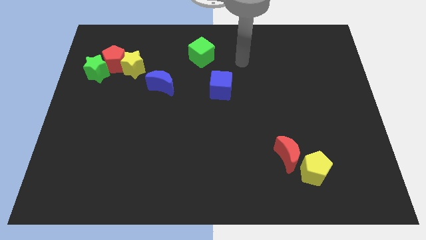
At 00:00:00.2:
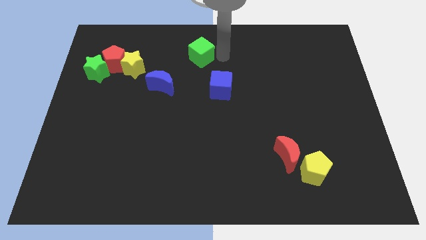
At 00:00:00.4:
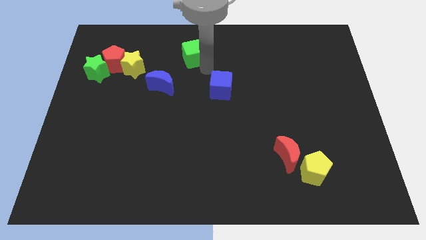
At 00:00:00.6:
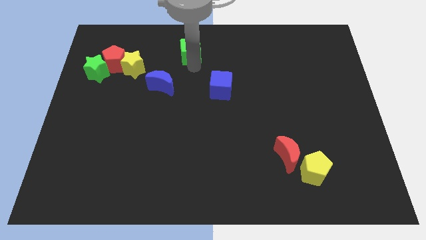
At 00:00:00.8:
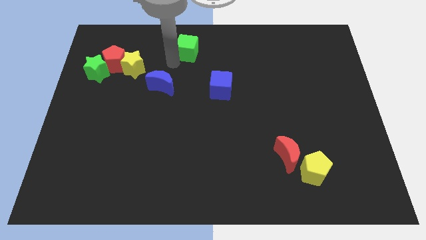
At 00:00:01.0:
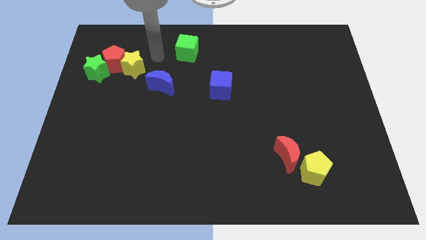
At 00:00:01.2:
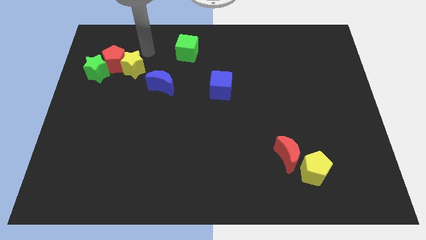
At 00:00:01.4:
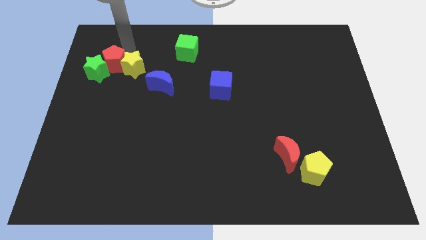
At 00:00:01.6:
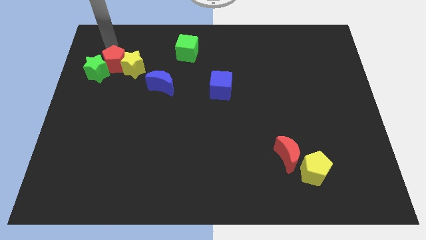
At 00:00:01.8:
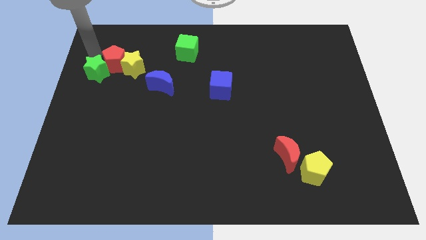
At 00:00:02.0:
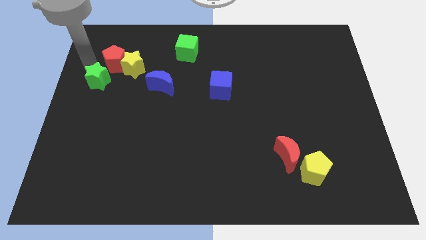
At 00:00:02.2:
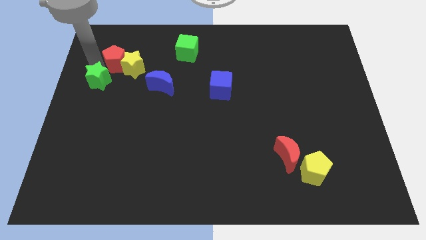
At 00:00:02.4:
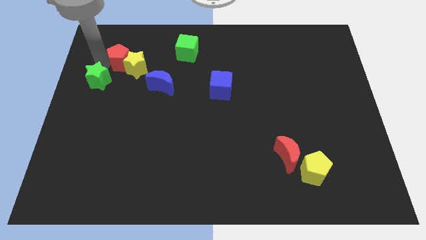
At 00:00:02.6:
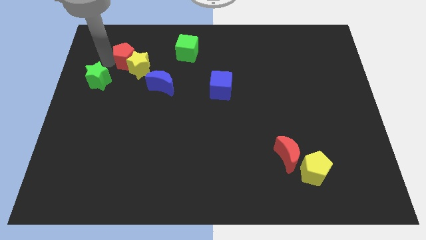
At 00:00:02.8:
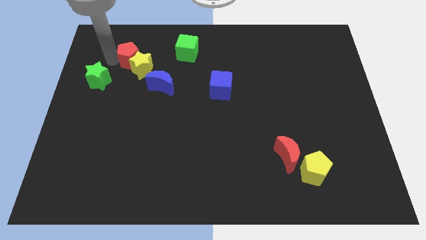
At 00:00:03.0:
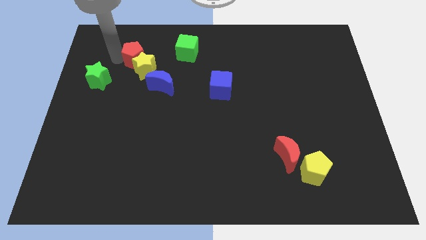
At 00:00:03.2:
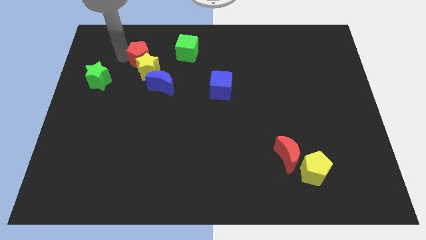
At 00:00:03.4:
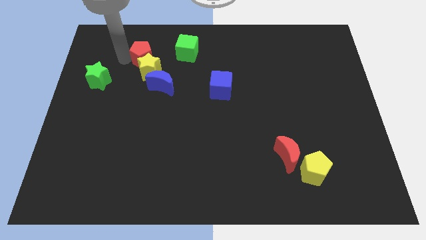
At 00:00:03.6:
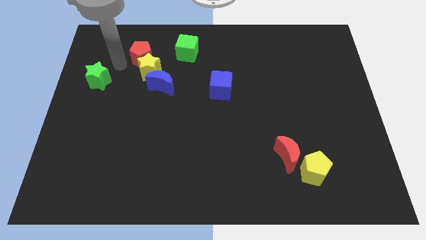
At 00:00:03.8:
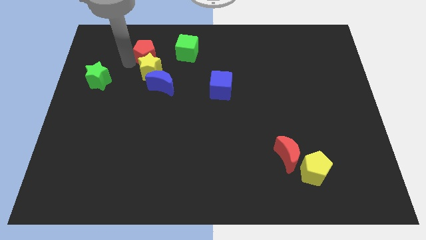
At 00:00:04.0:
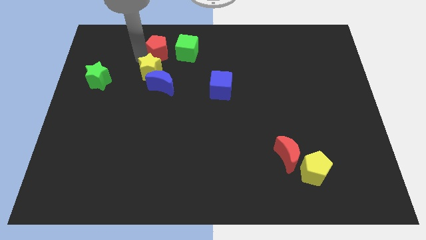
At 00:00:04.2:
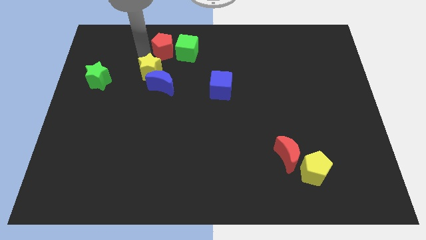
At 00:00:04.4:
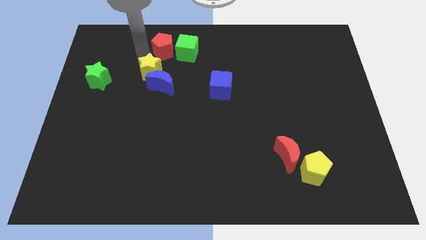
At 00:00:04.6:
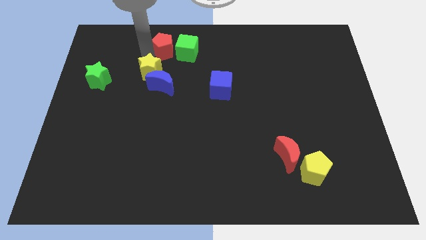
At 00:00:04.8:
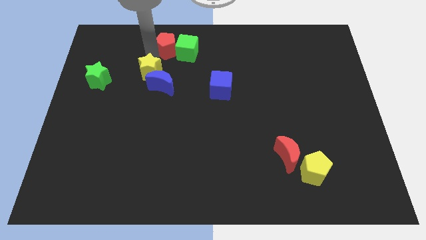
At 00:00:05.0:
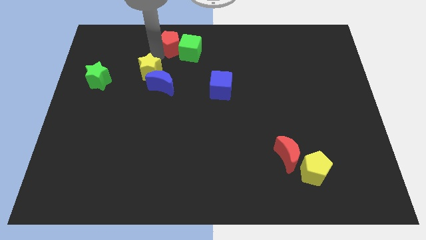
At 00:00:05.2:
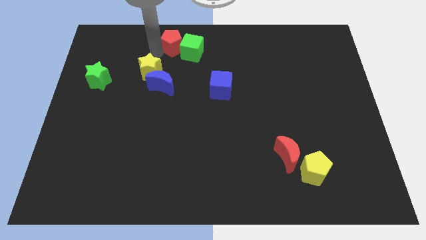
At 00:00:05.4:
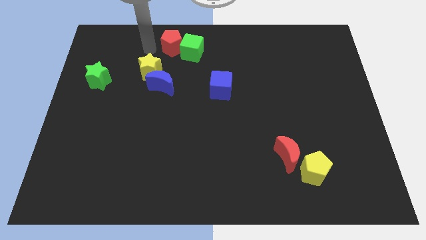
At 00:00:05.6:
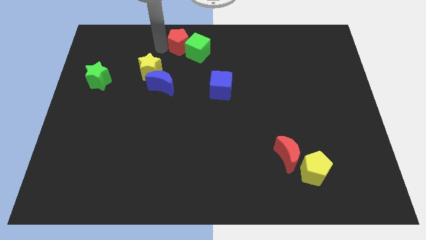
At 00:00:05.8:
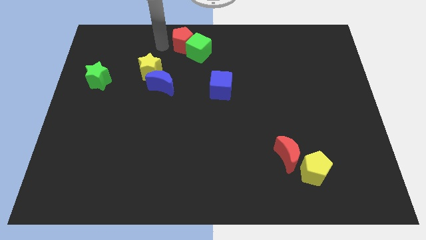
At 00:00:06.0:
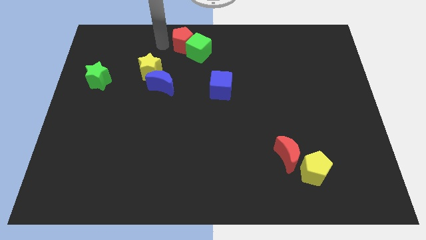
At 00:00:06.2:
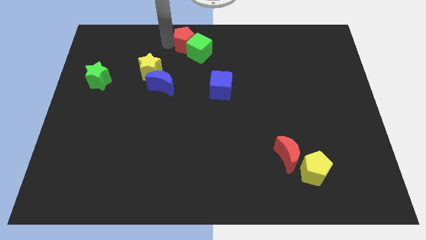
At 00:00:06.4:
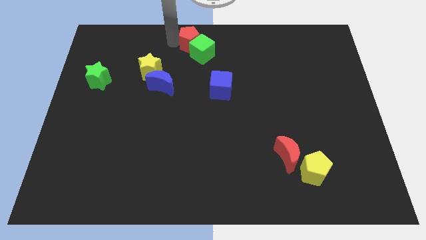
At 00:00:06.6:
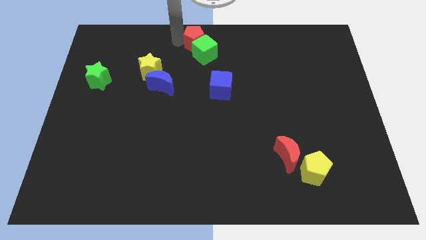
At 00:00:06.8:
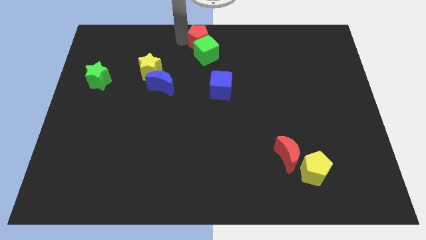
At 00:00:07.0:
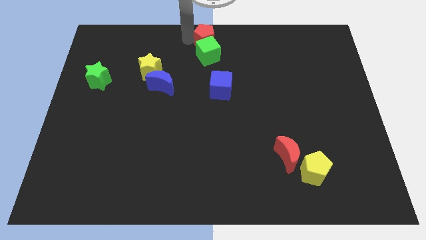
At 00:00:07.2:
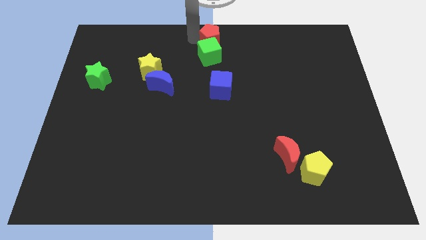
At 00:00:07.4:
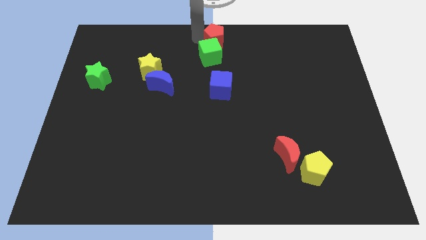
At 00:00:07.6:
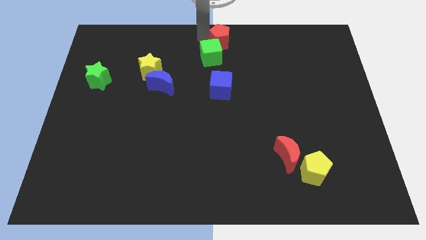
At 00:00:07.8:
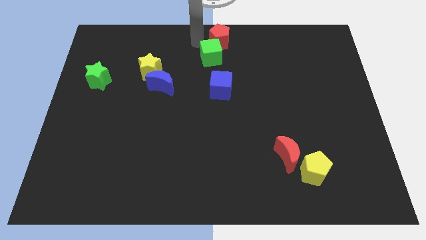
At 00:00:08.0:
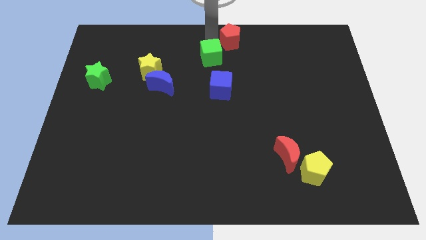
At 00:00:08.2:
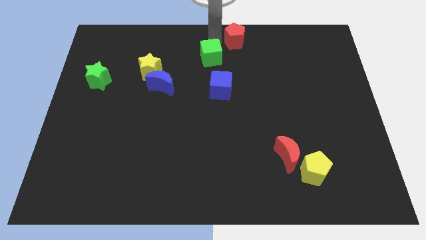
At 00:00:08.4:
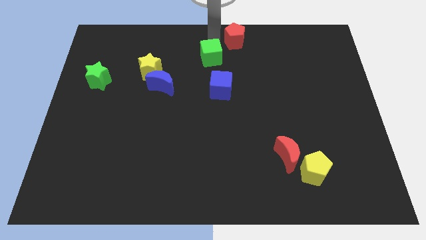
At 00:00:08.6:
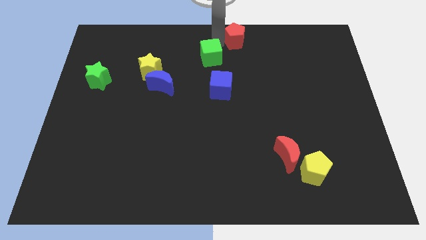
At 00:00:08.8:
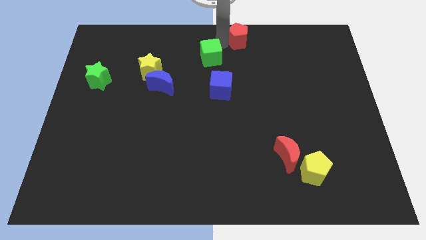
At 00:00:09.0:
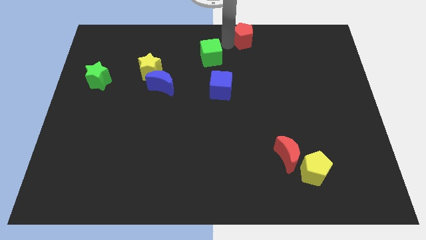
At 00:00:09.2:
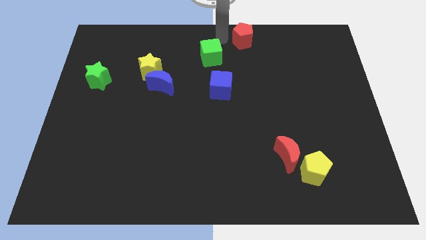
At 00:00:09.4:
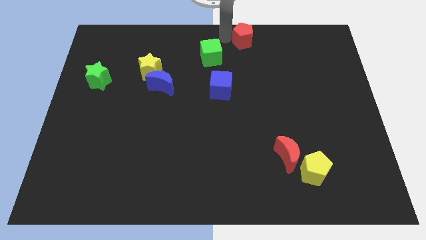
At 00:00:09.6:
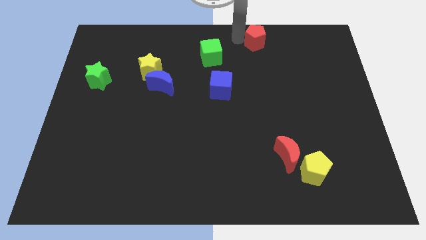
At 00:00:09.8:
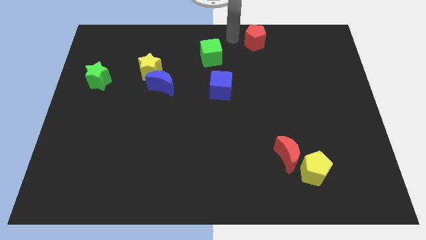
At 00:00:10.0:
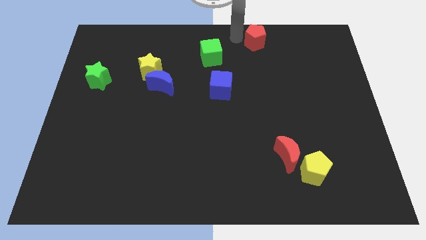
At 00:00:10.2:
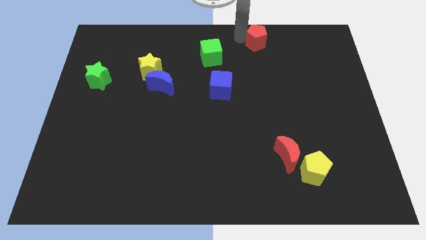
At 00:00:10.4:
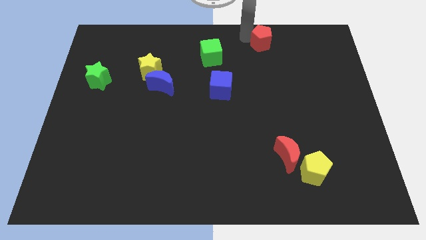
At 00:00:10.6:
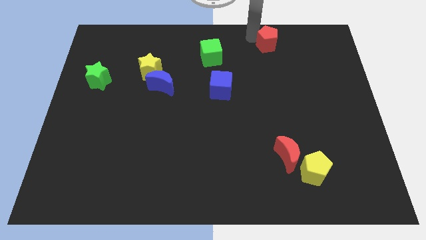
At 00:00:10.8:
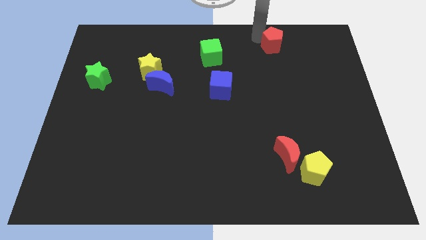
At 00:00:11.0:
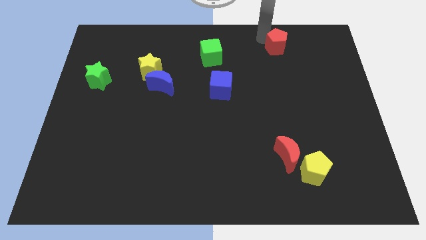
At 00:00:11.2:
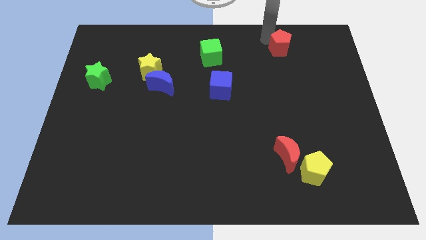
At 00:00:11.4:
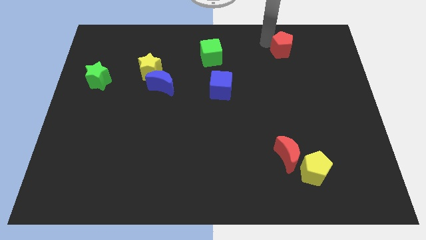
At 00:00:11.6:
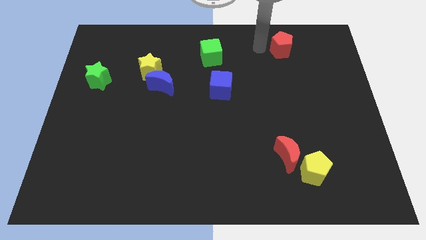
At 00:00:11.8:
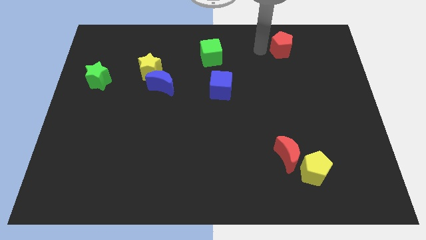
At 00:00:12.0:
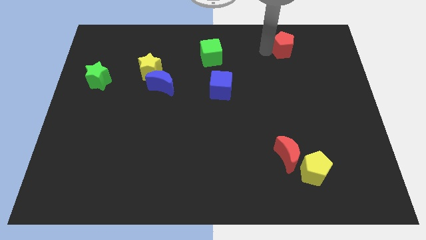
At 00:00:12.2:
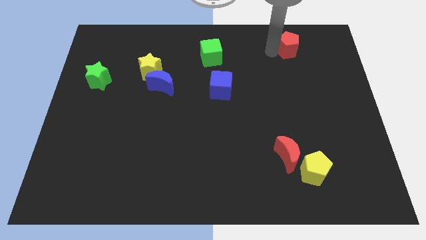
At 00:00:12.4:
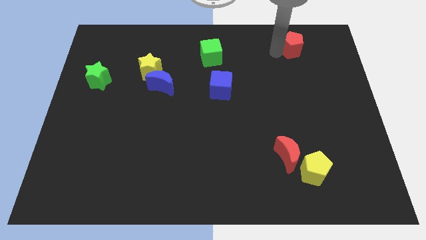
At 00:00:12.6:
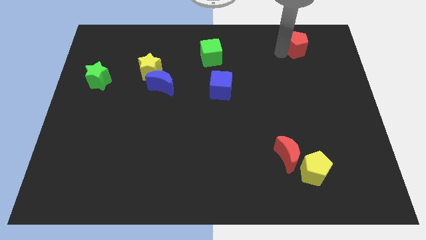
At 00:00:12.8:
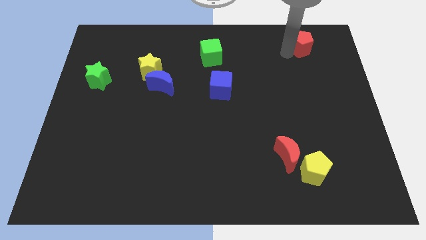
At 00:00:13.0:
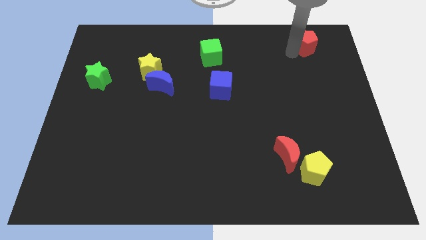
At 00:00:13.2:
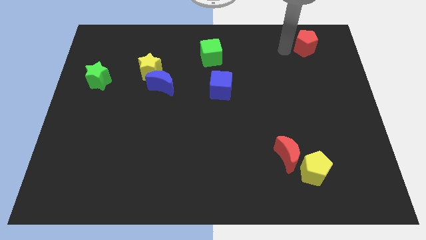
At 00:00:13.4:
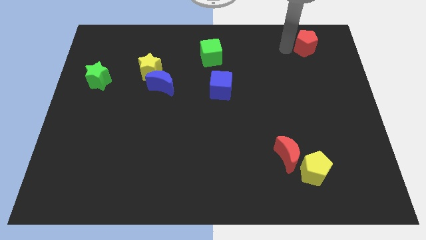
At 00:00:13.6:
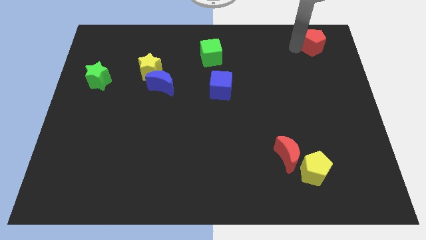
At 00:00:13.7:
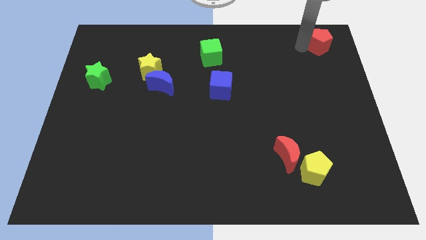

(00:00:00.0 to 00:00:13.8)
put the red pentagon to the top right

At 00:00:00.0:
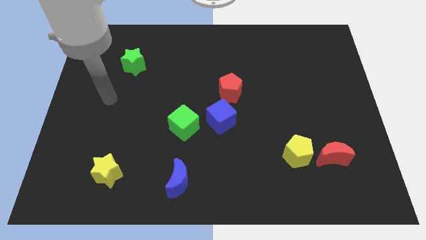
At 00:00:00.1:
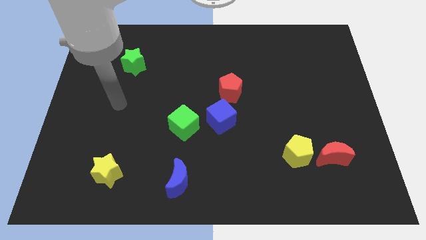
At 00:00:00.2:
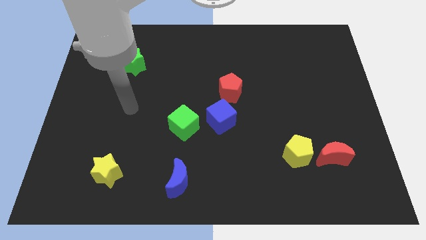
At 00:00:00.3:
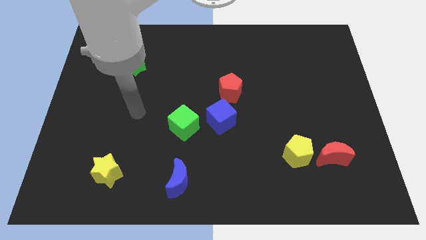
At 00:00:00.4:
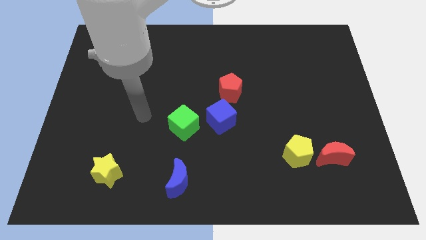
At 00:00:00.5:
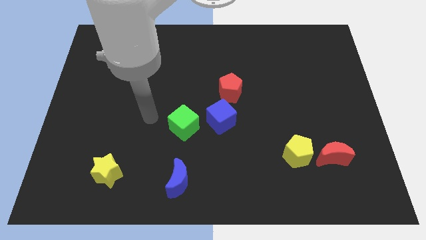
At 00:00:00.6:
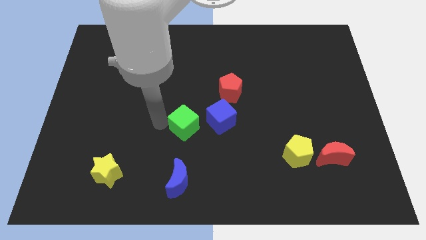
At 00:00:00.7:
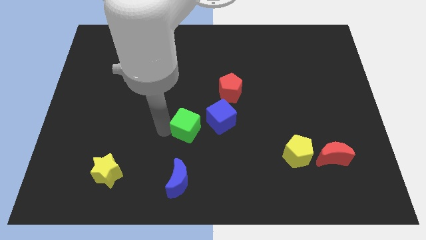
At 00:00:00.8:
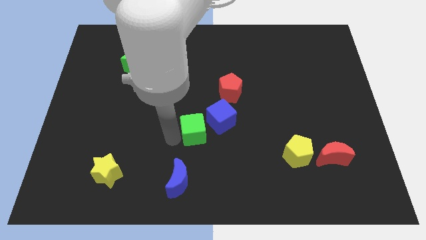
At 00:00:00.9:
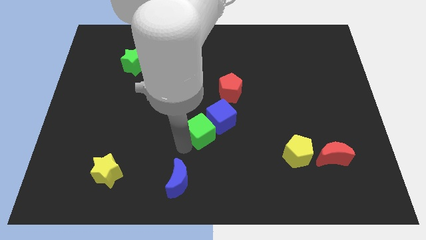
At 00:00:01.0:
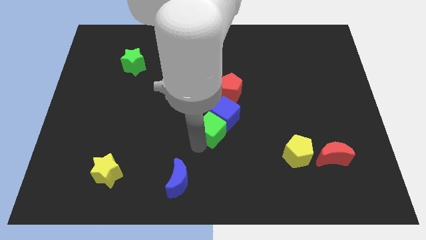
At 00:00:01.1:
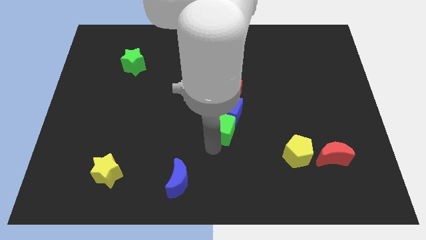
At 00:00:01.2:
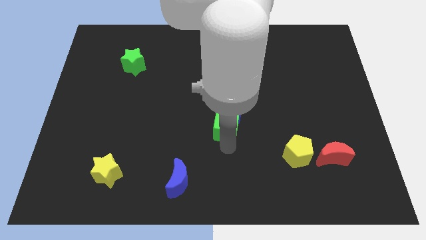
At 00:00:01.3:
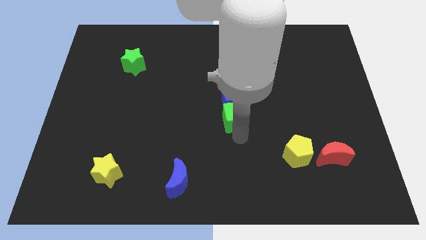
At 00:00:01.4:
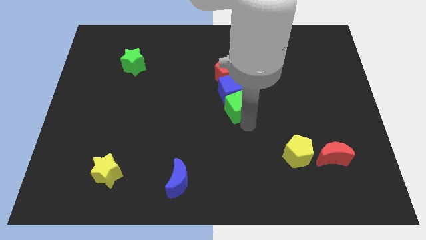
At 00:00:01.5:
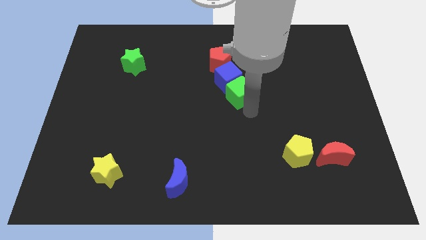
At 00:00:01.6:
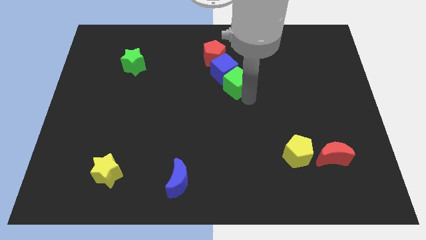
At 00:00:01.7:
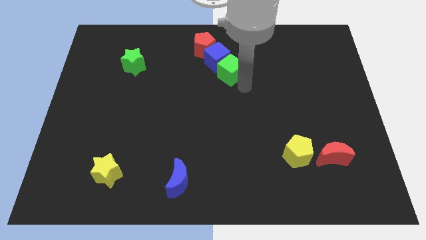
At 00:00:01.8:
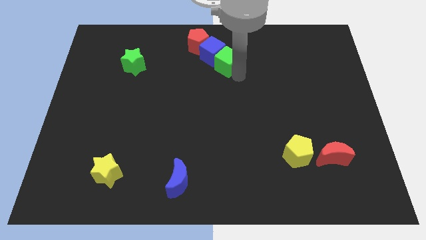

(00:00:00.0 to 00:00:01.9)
put the blue cube to the top side
